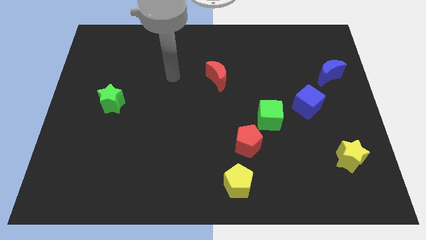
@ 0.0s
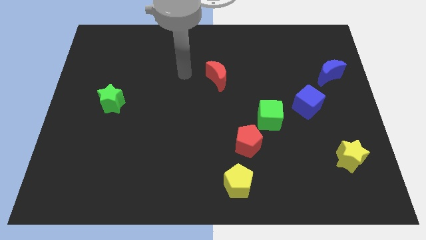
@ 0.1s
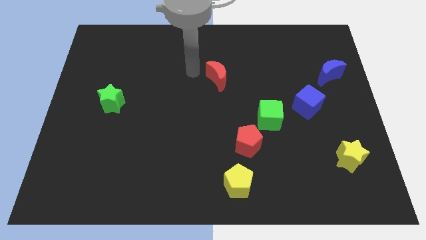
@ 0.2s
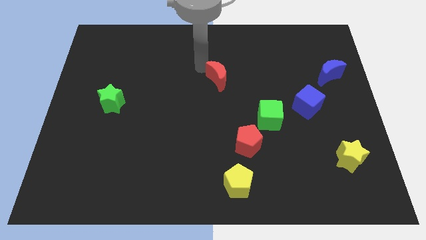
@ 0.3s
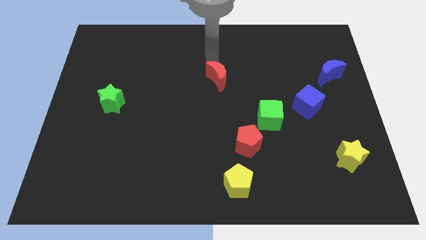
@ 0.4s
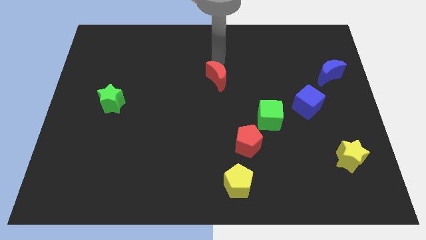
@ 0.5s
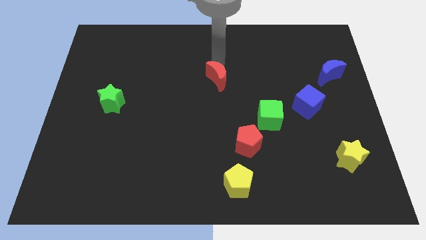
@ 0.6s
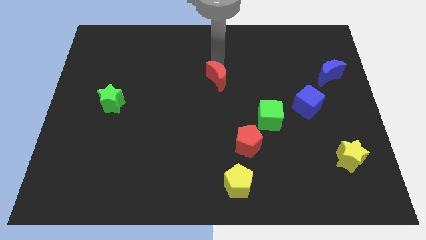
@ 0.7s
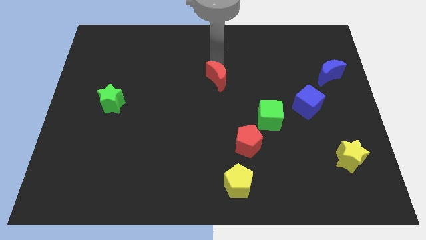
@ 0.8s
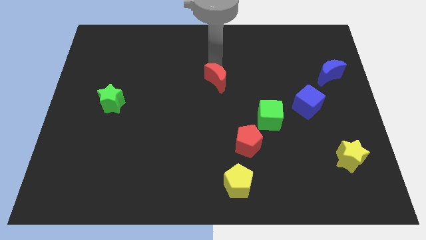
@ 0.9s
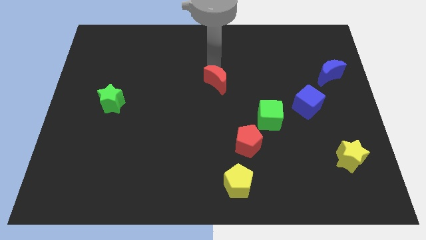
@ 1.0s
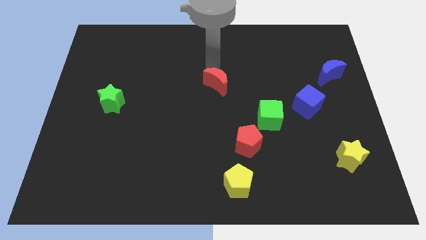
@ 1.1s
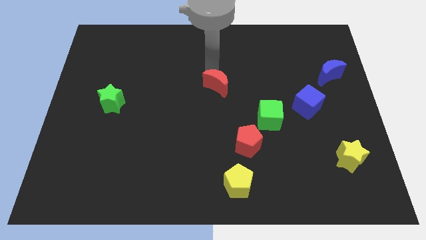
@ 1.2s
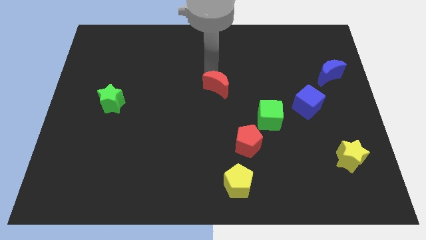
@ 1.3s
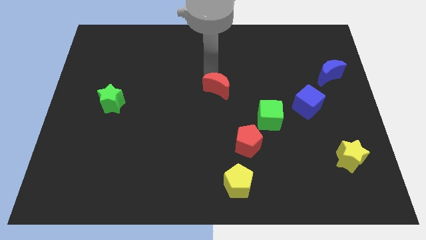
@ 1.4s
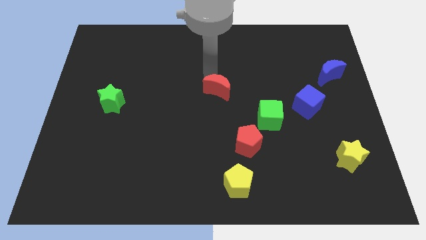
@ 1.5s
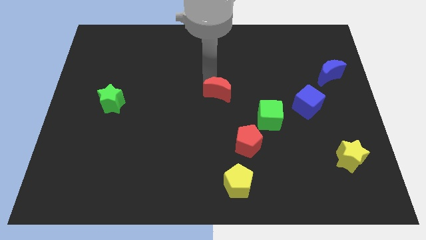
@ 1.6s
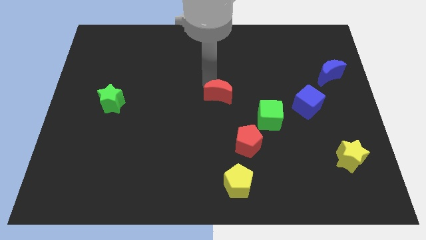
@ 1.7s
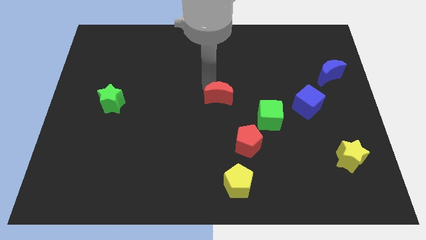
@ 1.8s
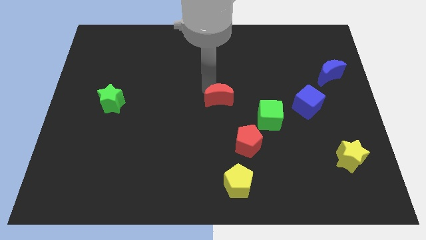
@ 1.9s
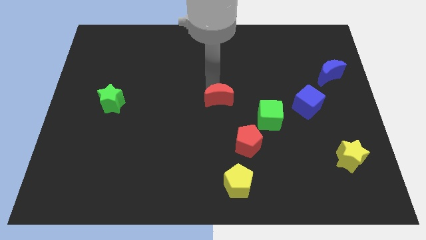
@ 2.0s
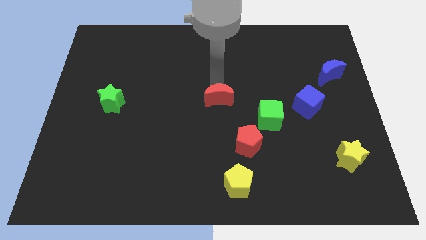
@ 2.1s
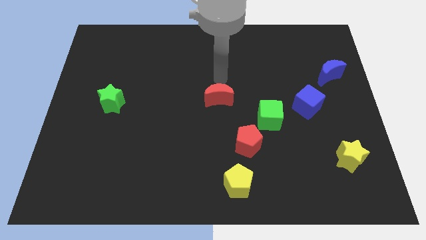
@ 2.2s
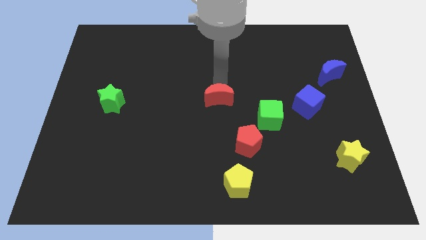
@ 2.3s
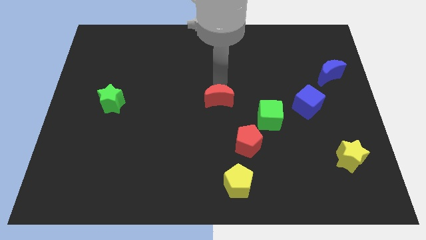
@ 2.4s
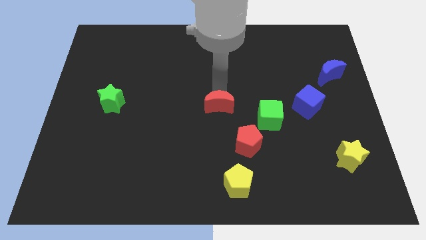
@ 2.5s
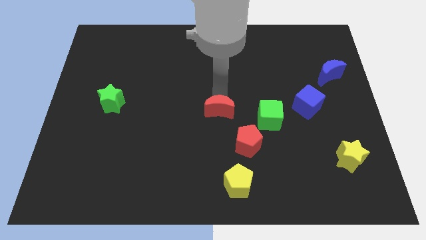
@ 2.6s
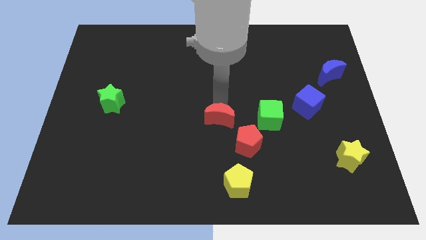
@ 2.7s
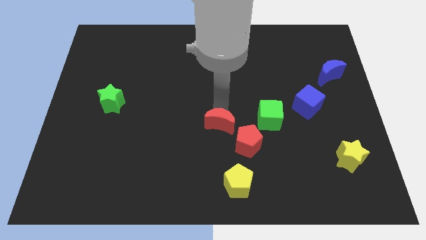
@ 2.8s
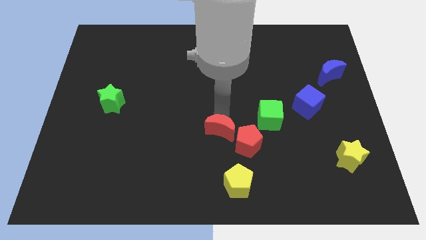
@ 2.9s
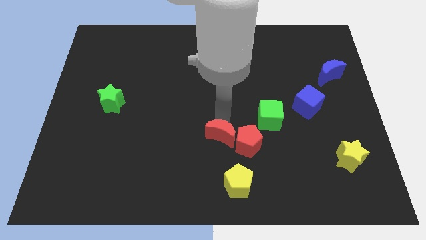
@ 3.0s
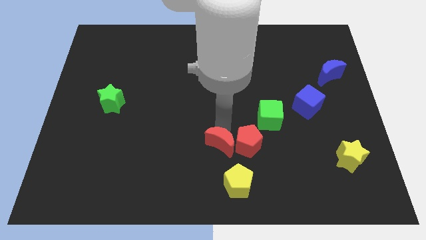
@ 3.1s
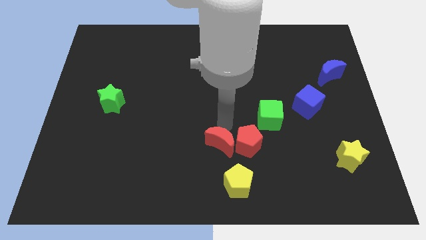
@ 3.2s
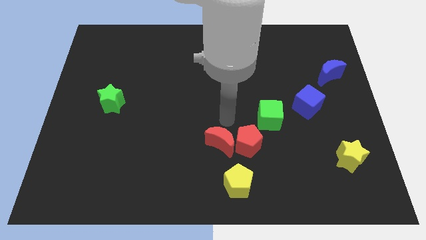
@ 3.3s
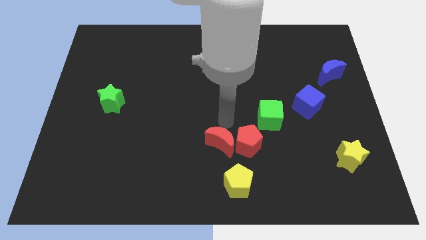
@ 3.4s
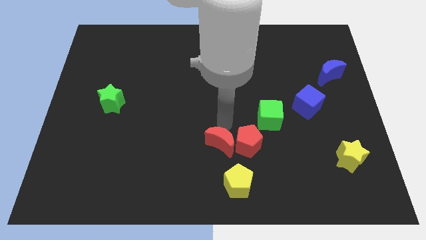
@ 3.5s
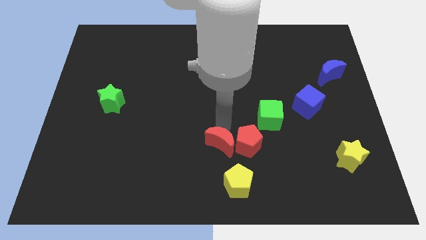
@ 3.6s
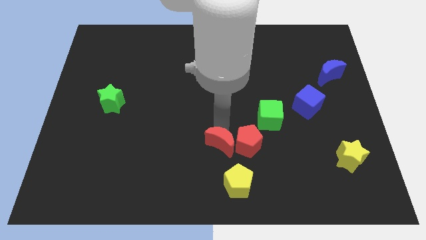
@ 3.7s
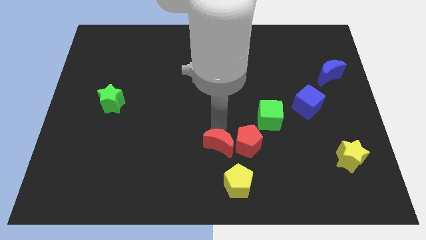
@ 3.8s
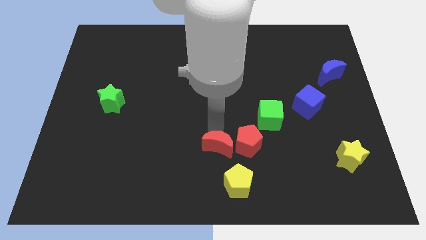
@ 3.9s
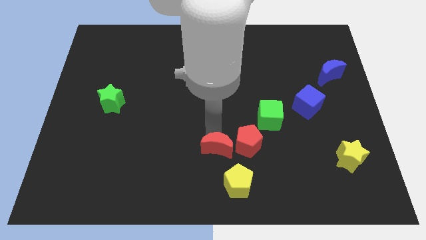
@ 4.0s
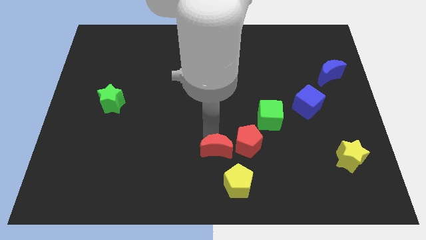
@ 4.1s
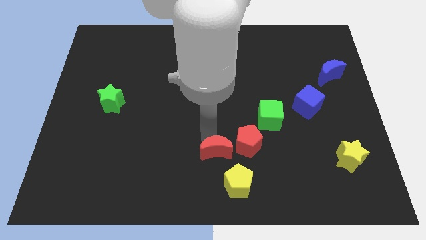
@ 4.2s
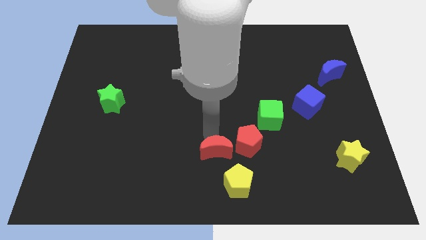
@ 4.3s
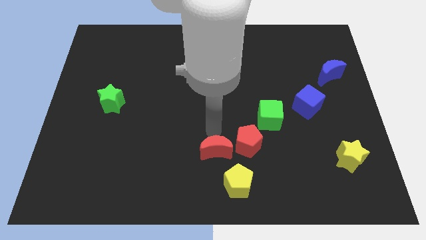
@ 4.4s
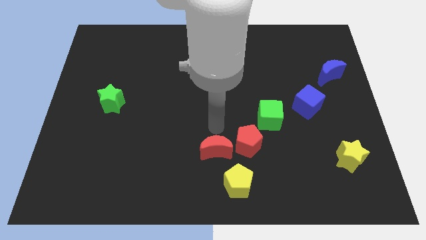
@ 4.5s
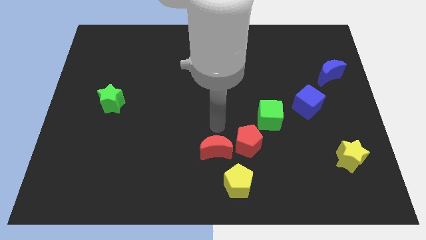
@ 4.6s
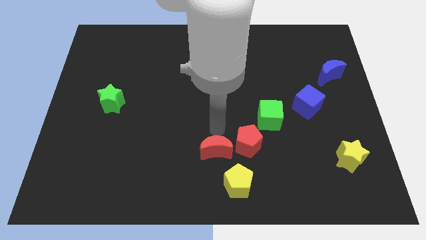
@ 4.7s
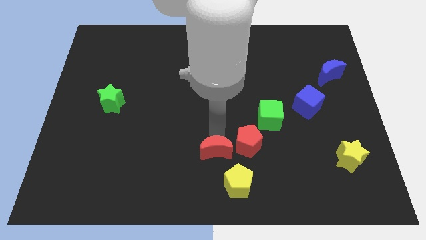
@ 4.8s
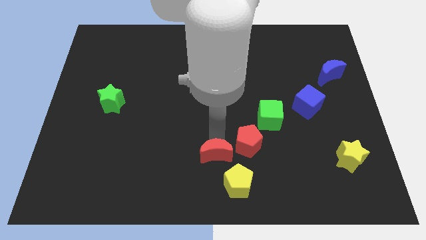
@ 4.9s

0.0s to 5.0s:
push the red moon to the bottom

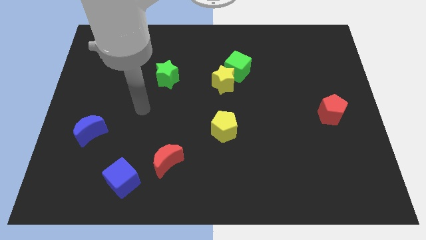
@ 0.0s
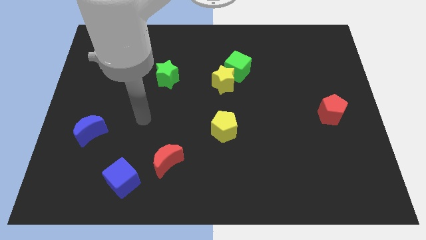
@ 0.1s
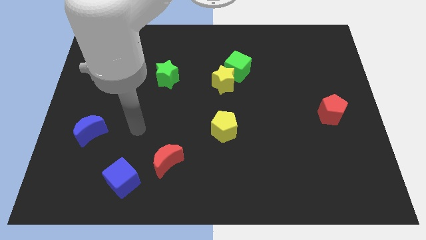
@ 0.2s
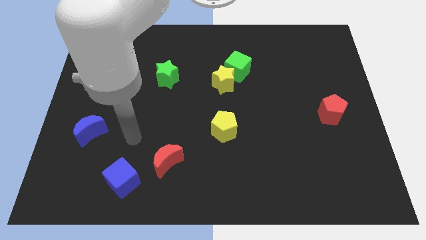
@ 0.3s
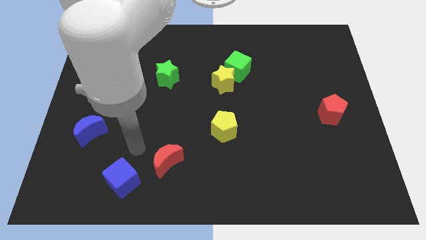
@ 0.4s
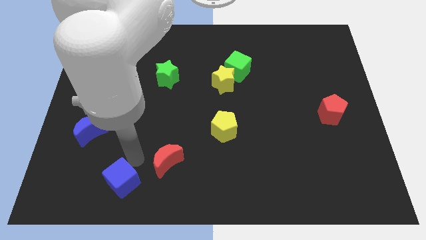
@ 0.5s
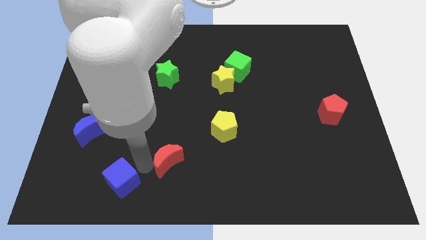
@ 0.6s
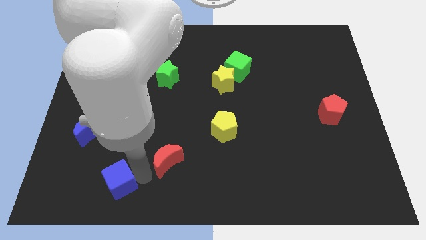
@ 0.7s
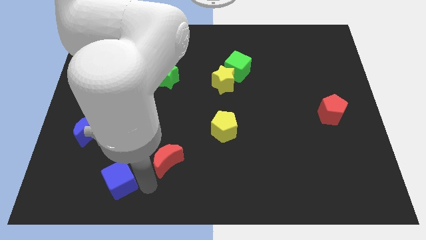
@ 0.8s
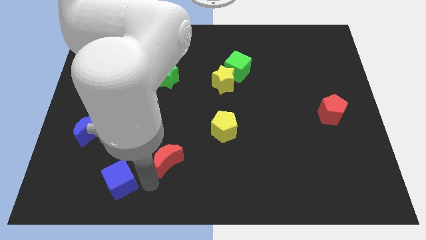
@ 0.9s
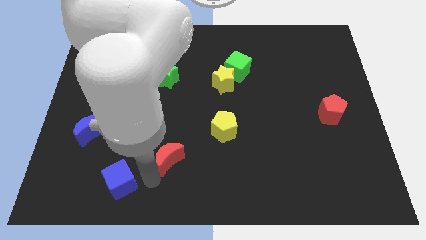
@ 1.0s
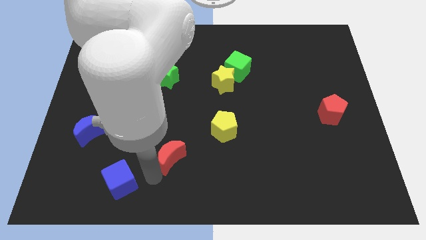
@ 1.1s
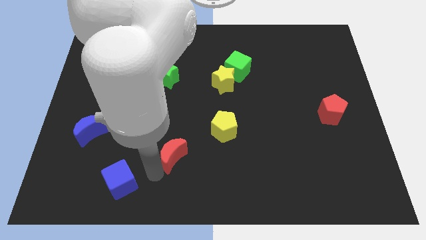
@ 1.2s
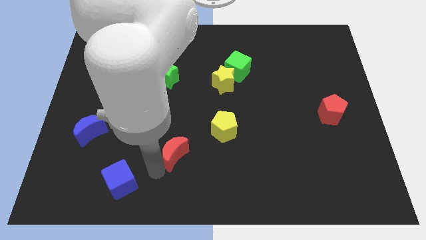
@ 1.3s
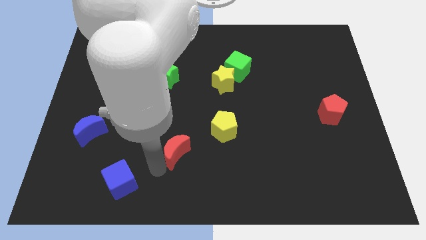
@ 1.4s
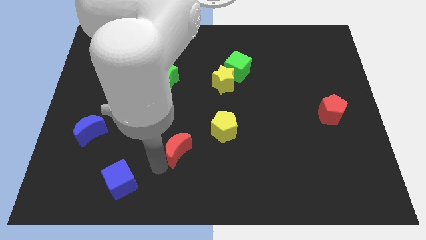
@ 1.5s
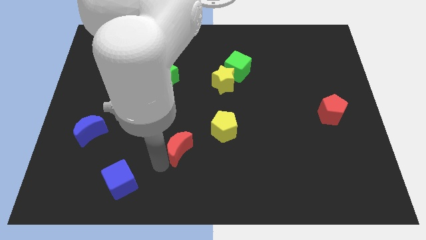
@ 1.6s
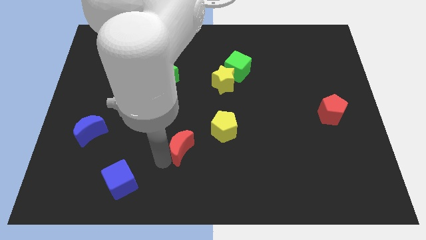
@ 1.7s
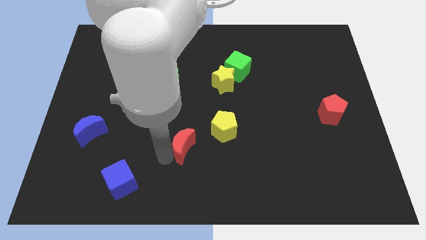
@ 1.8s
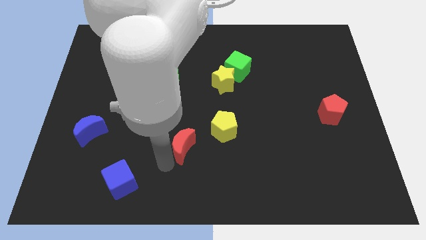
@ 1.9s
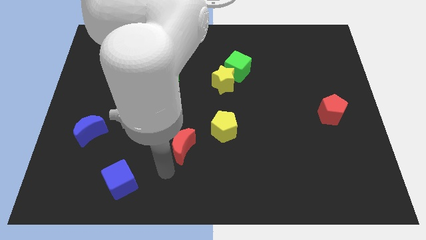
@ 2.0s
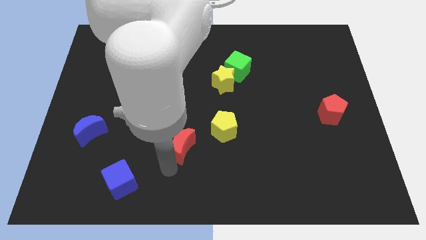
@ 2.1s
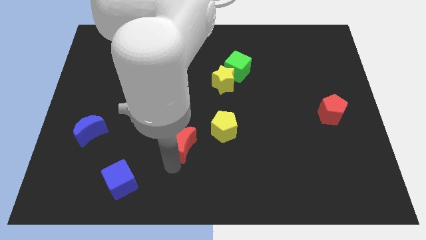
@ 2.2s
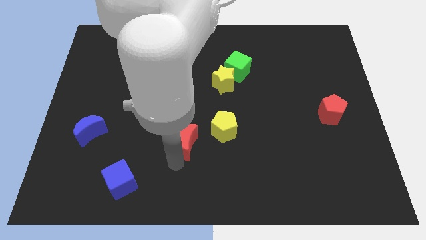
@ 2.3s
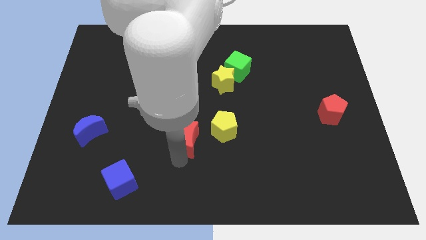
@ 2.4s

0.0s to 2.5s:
put the red moon to the middle of the board
